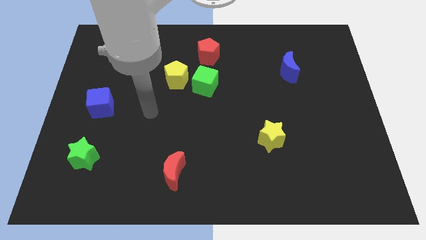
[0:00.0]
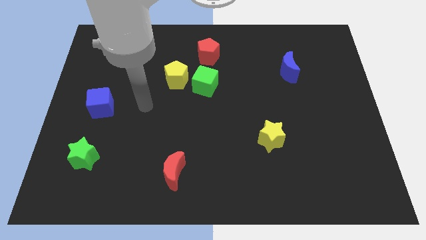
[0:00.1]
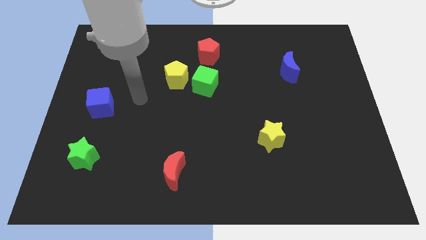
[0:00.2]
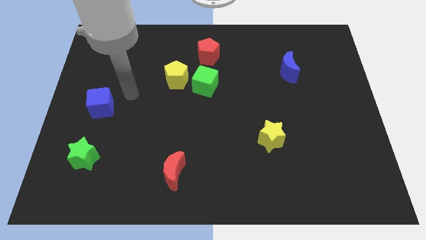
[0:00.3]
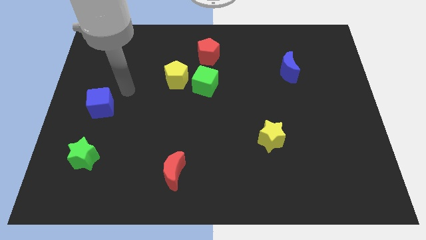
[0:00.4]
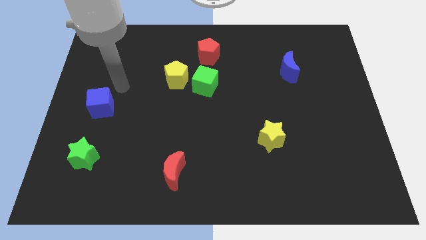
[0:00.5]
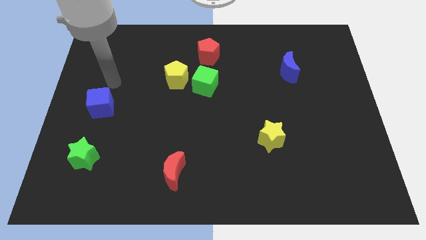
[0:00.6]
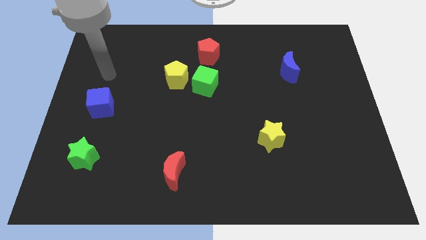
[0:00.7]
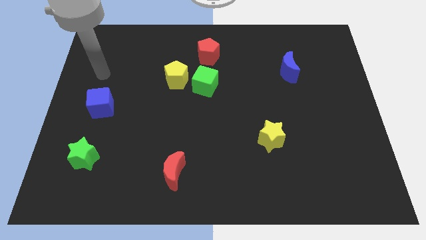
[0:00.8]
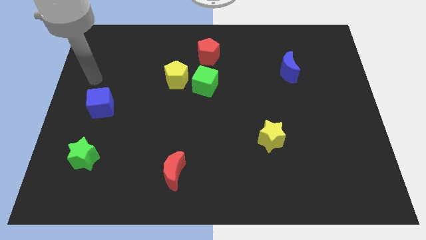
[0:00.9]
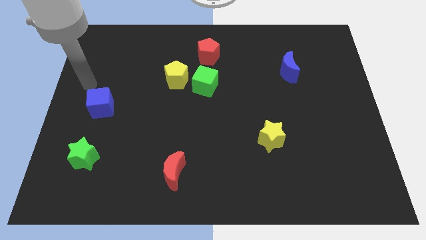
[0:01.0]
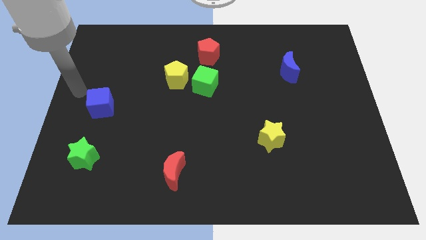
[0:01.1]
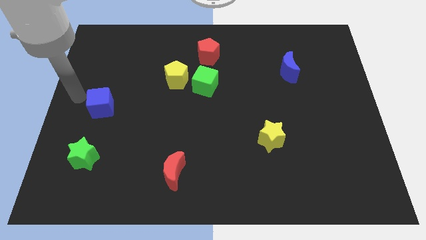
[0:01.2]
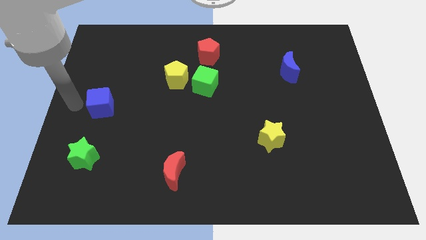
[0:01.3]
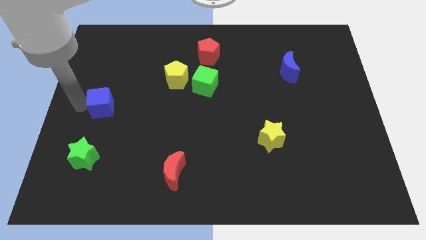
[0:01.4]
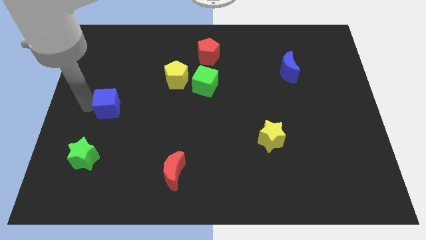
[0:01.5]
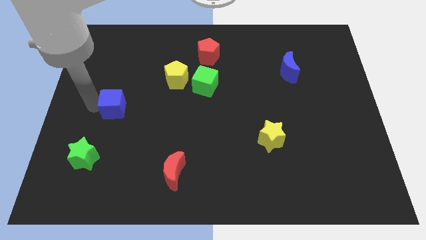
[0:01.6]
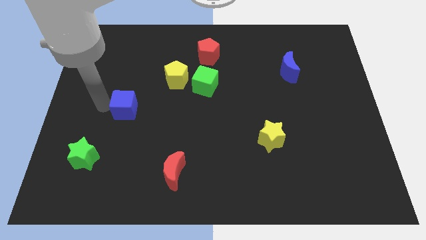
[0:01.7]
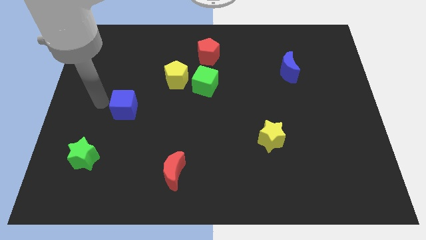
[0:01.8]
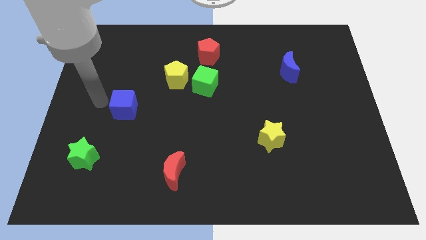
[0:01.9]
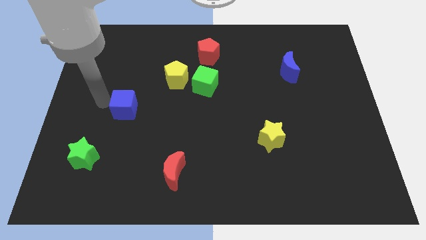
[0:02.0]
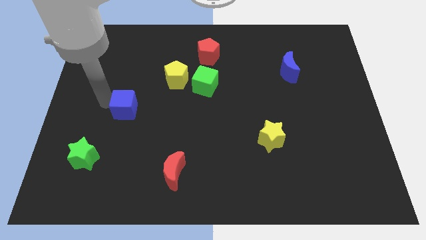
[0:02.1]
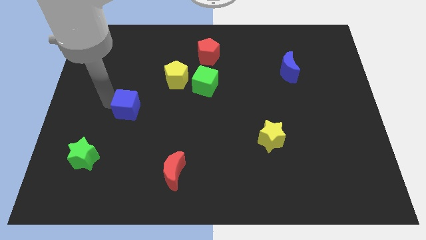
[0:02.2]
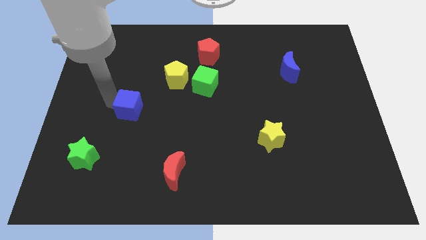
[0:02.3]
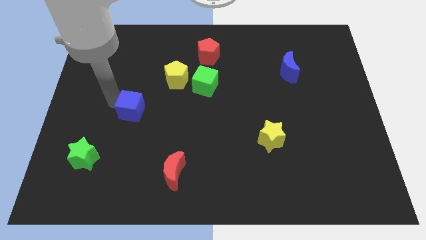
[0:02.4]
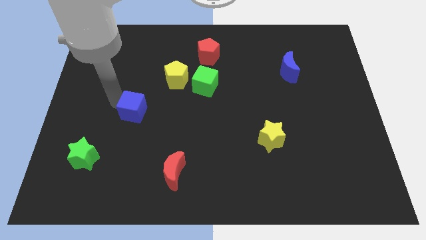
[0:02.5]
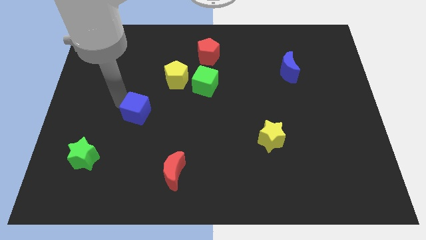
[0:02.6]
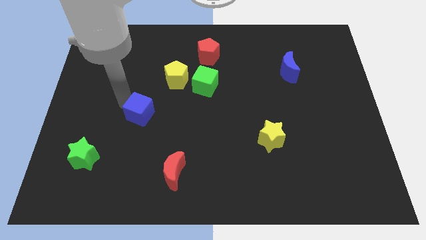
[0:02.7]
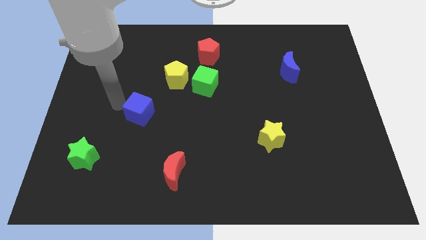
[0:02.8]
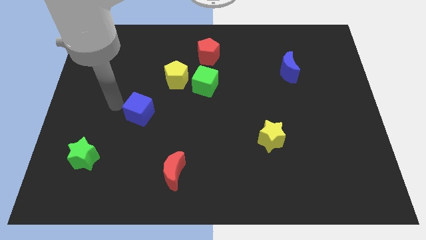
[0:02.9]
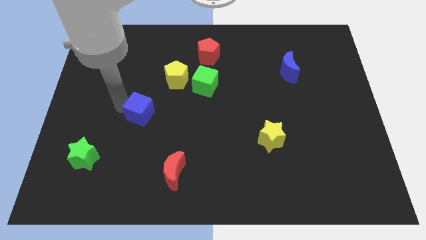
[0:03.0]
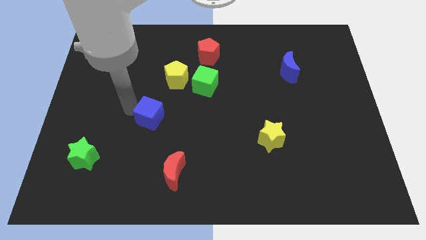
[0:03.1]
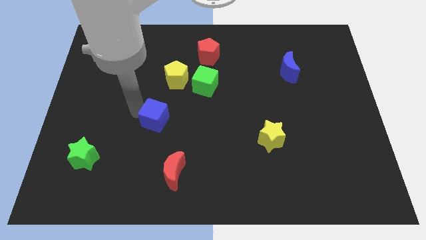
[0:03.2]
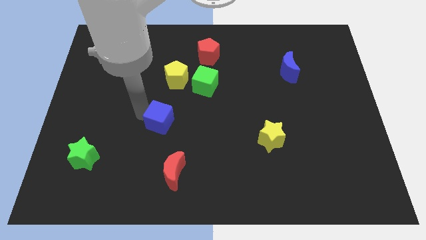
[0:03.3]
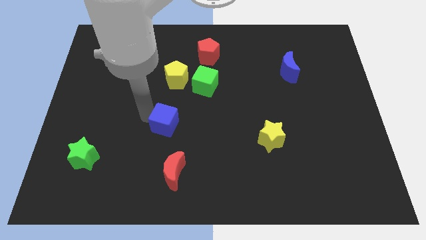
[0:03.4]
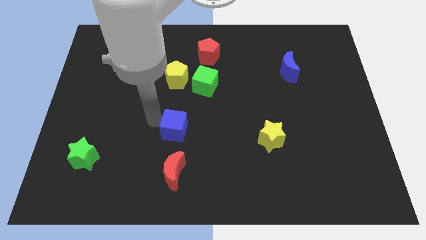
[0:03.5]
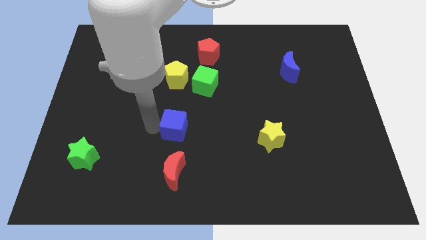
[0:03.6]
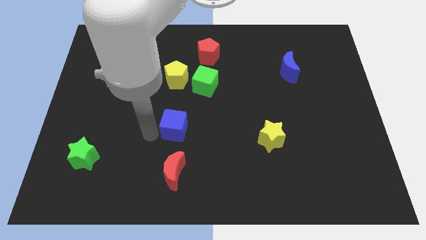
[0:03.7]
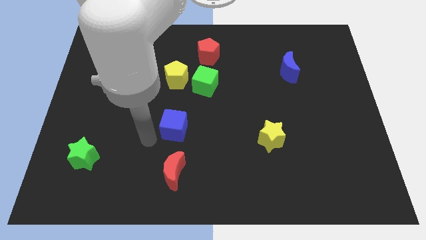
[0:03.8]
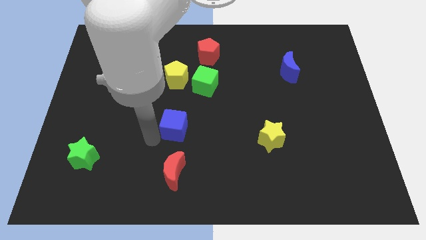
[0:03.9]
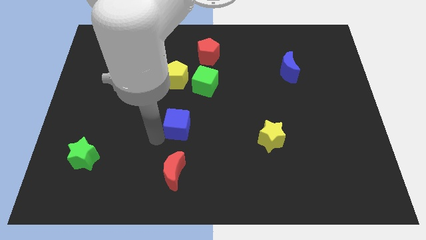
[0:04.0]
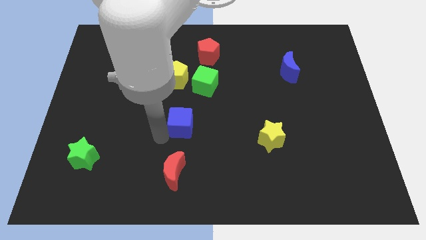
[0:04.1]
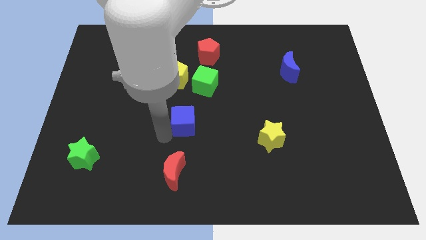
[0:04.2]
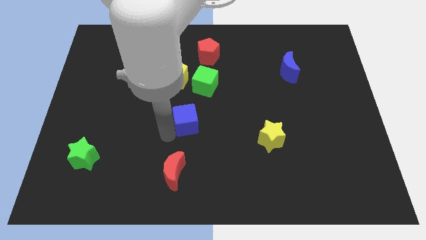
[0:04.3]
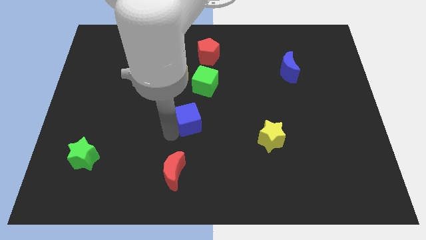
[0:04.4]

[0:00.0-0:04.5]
move the blue cube to the right

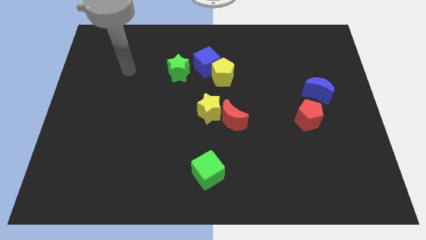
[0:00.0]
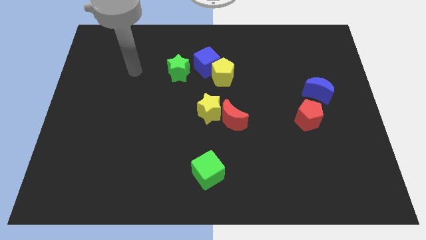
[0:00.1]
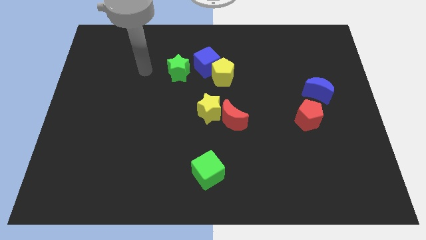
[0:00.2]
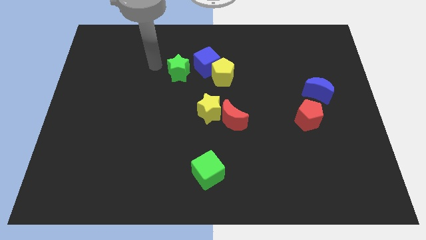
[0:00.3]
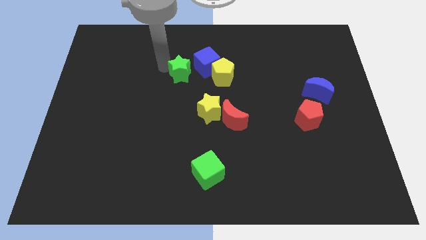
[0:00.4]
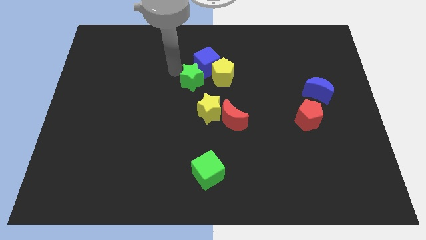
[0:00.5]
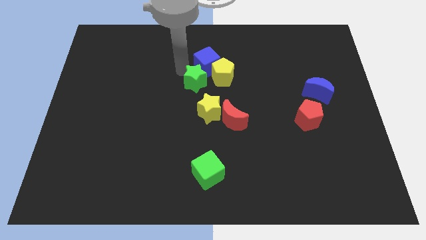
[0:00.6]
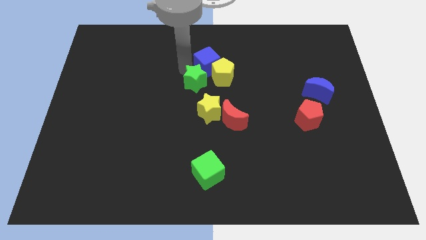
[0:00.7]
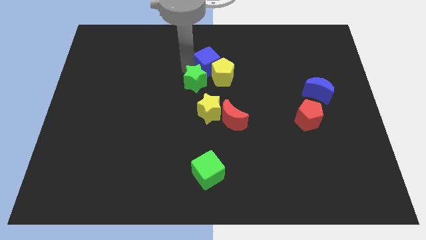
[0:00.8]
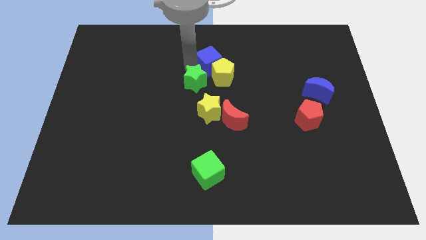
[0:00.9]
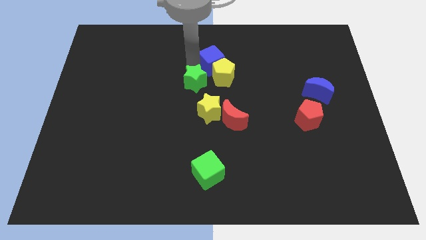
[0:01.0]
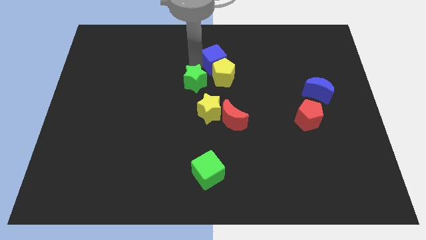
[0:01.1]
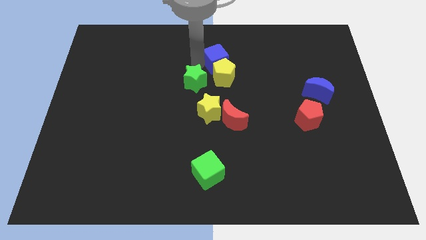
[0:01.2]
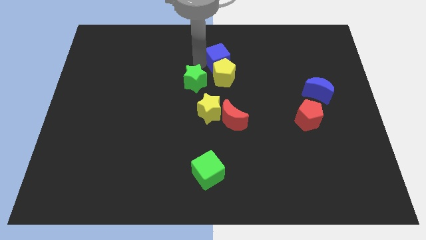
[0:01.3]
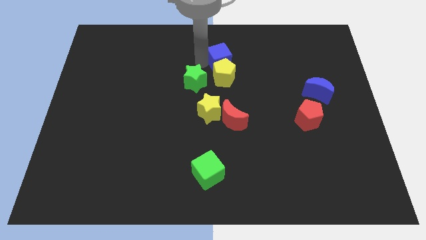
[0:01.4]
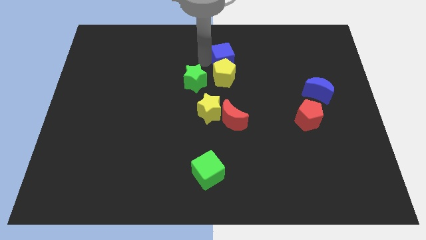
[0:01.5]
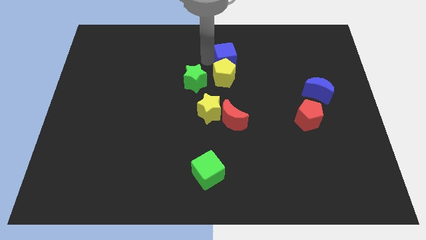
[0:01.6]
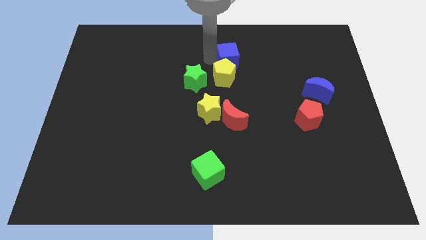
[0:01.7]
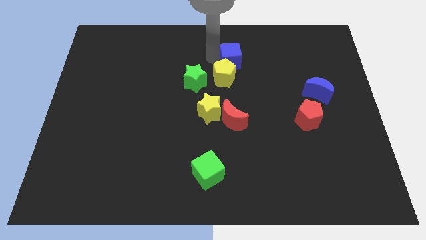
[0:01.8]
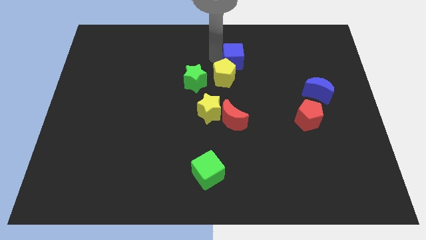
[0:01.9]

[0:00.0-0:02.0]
push the blue cube a bit to the right

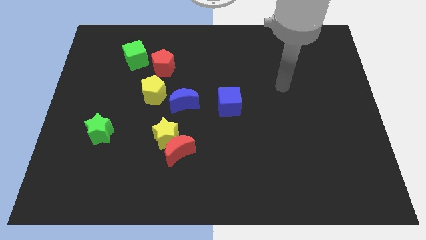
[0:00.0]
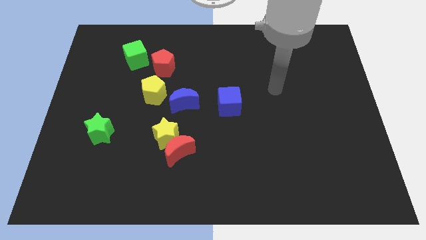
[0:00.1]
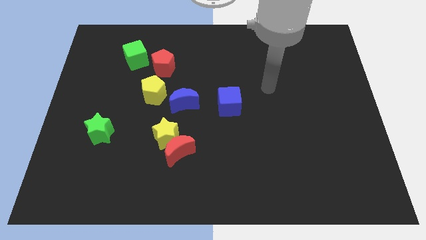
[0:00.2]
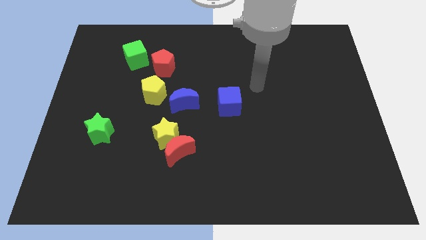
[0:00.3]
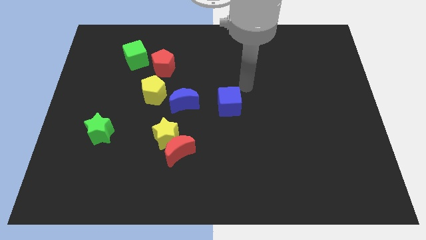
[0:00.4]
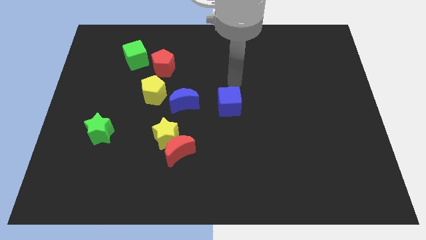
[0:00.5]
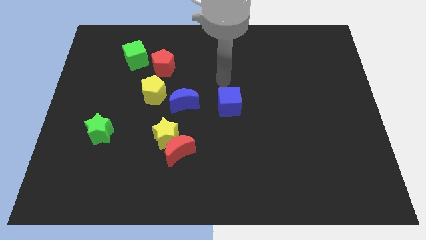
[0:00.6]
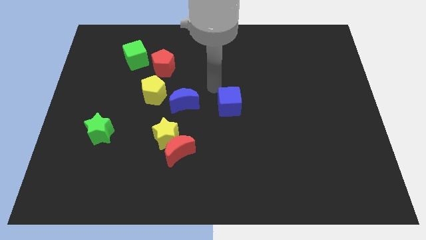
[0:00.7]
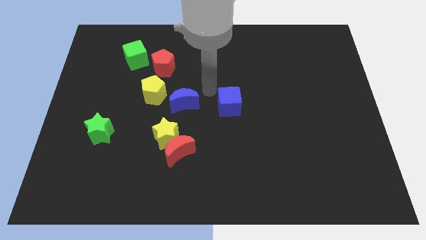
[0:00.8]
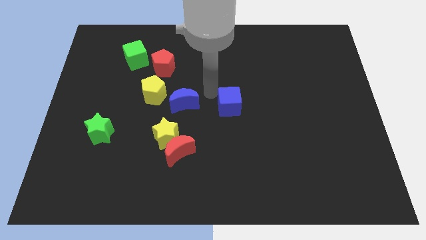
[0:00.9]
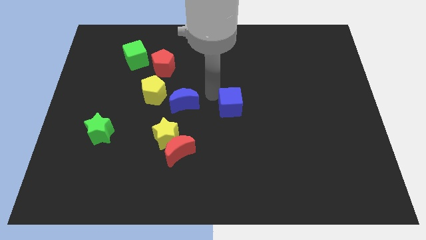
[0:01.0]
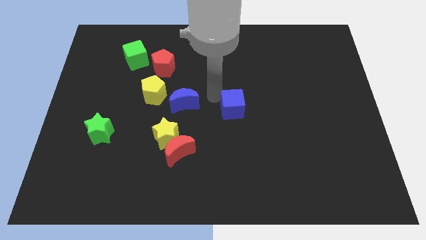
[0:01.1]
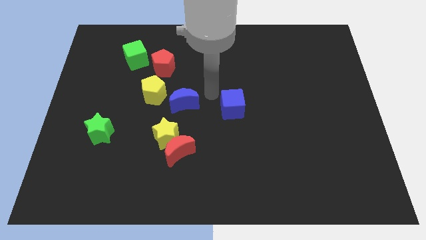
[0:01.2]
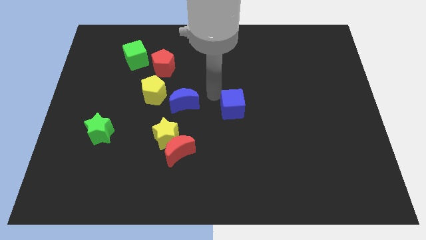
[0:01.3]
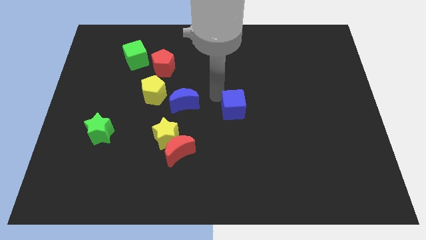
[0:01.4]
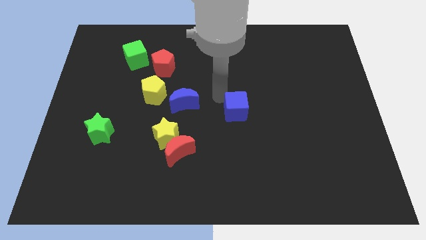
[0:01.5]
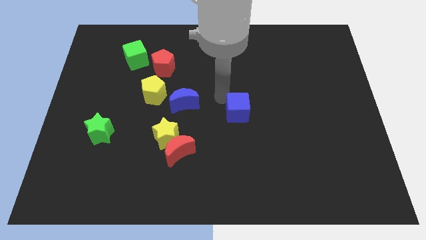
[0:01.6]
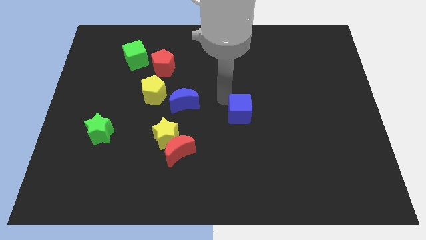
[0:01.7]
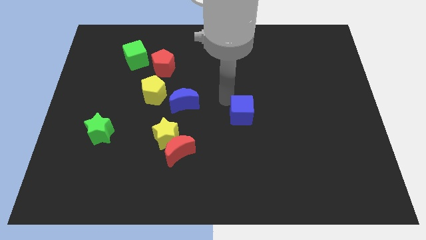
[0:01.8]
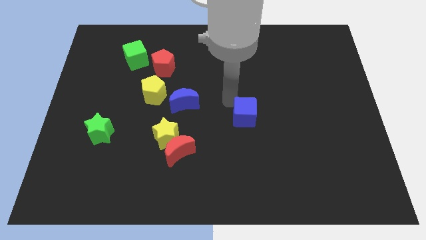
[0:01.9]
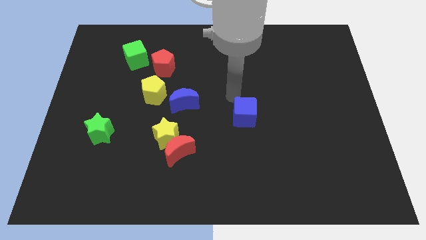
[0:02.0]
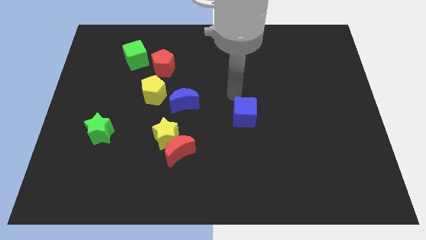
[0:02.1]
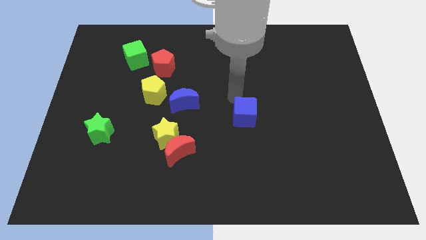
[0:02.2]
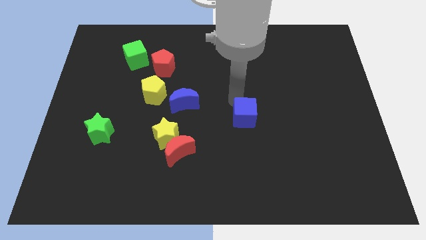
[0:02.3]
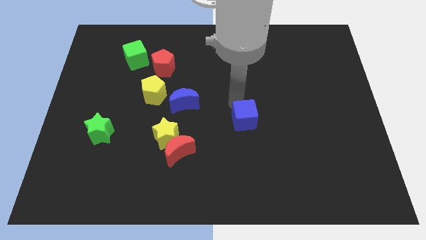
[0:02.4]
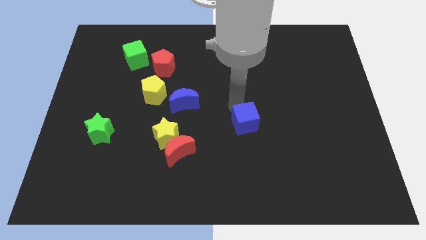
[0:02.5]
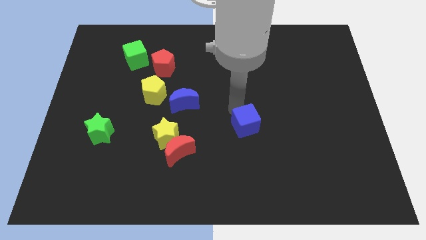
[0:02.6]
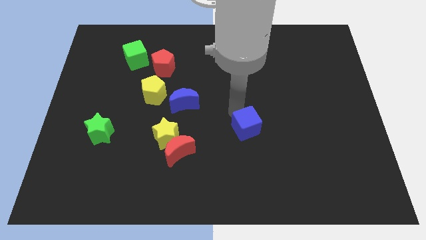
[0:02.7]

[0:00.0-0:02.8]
slide the blue cube a little bit down and to the right
